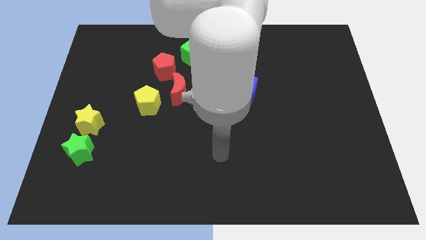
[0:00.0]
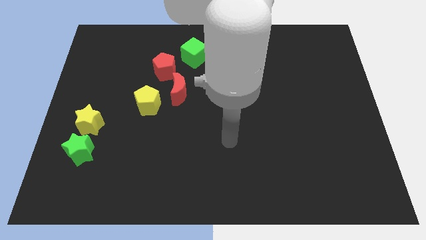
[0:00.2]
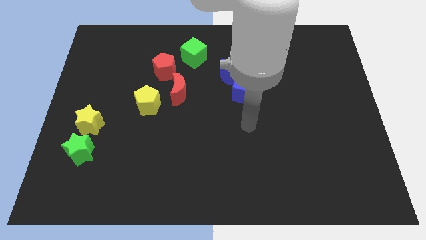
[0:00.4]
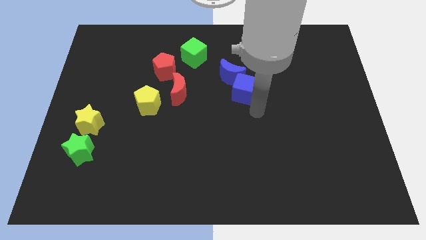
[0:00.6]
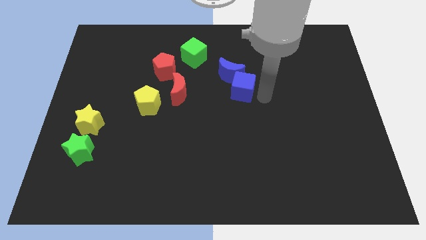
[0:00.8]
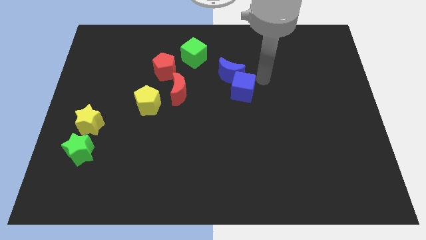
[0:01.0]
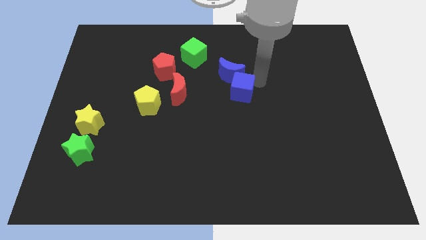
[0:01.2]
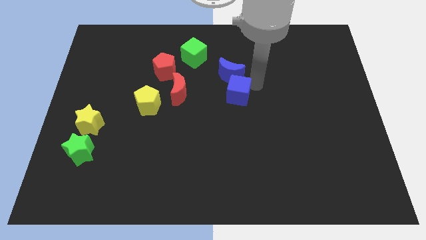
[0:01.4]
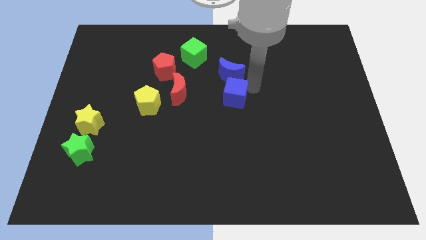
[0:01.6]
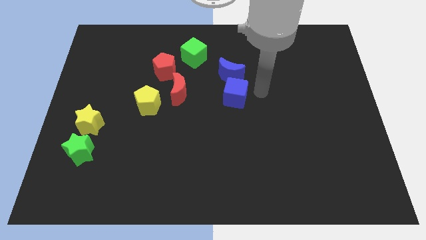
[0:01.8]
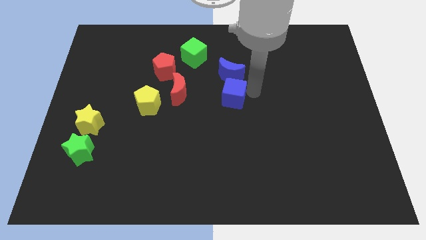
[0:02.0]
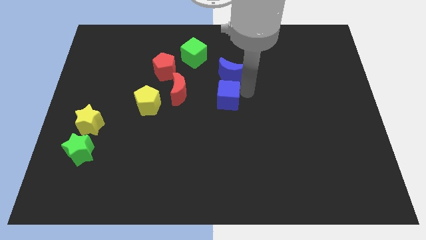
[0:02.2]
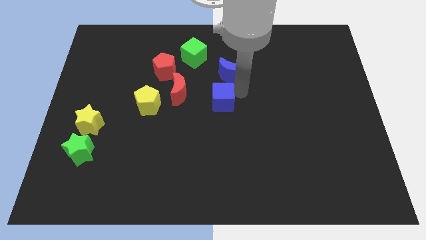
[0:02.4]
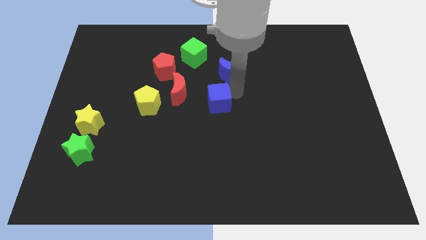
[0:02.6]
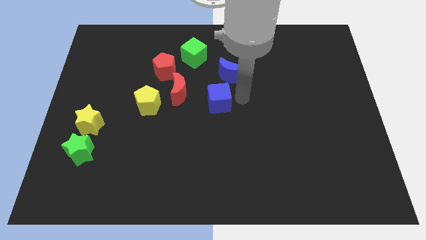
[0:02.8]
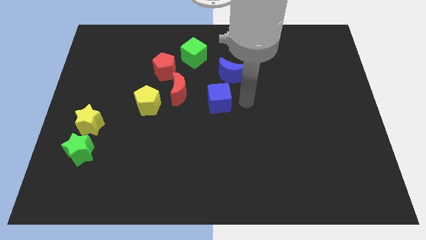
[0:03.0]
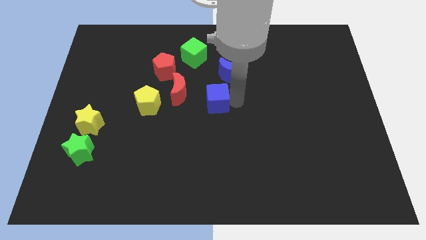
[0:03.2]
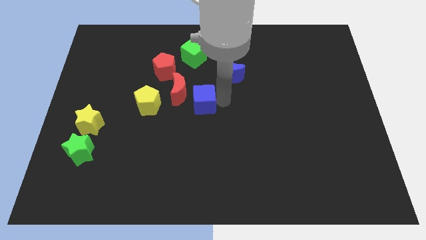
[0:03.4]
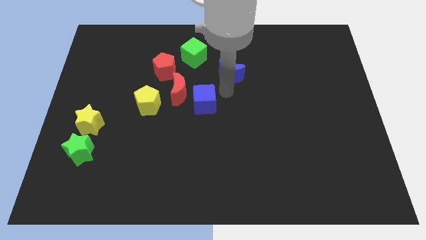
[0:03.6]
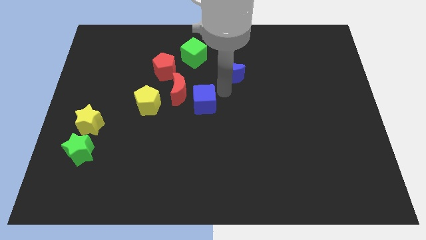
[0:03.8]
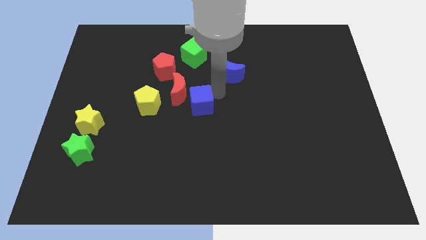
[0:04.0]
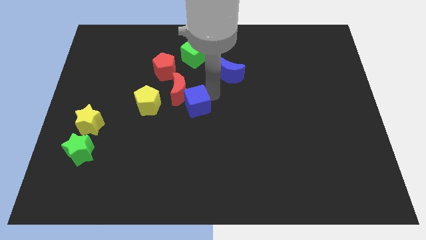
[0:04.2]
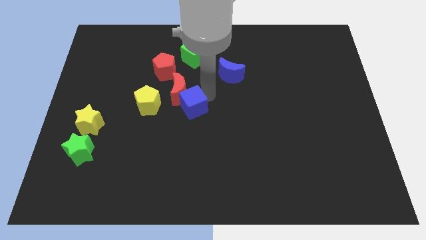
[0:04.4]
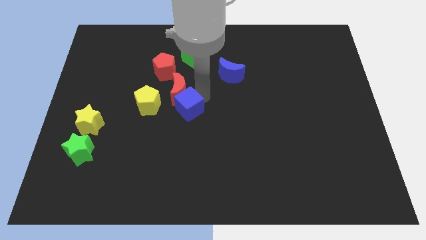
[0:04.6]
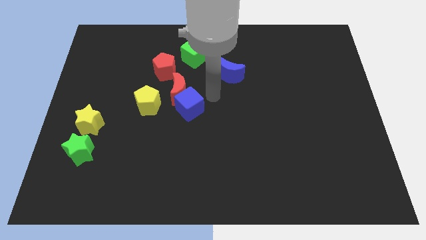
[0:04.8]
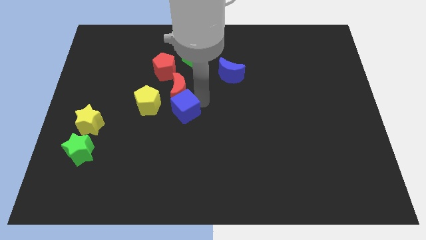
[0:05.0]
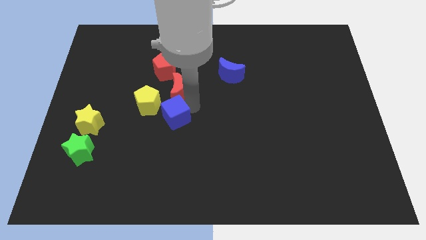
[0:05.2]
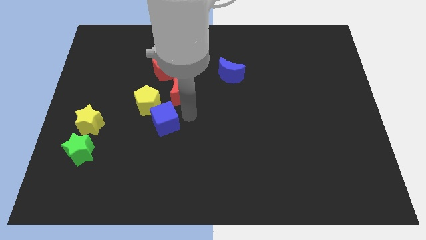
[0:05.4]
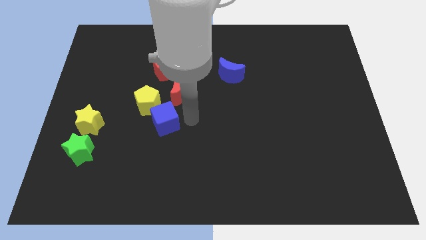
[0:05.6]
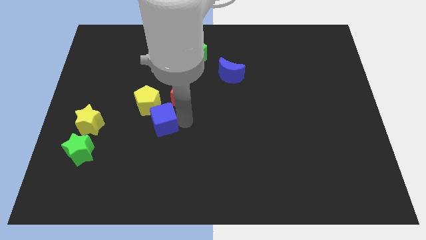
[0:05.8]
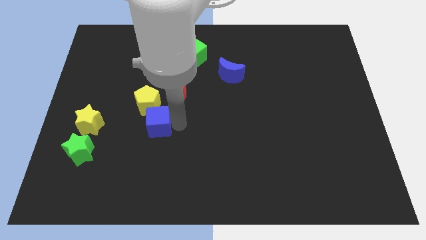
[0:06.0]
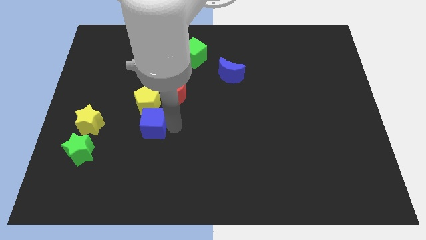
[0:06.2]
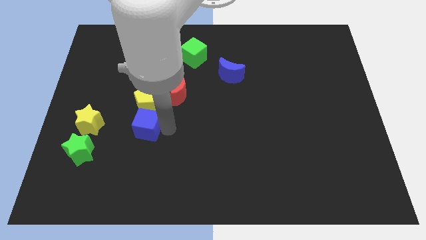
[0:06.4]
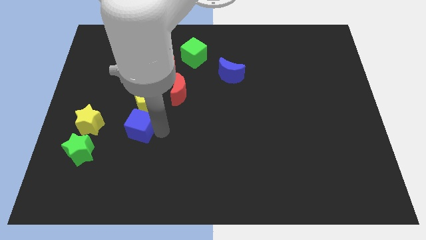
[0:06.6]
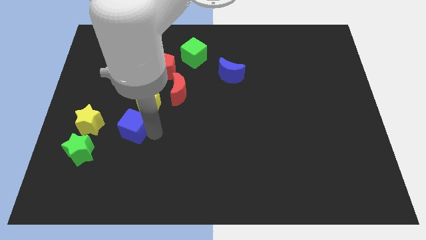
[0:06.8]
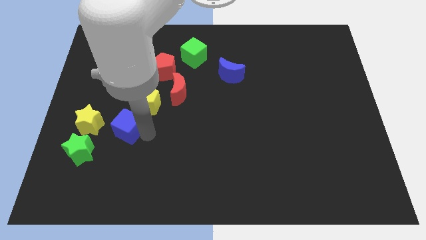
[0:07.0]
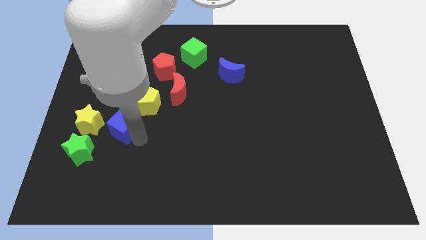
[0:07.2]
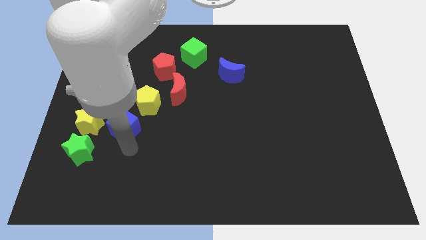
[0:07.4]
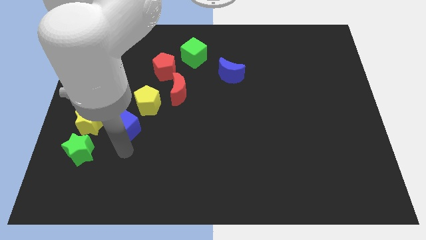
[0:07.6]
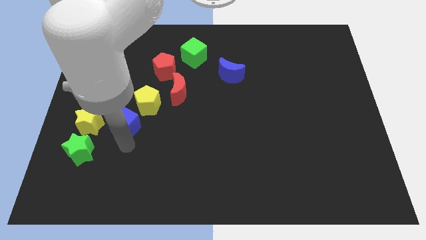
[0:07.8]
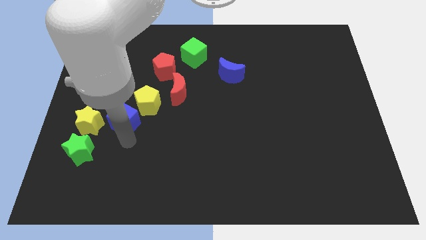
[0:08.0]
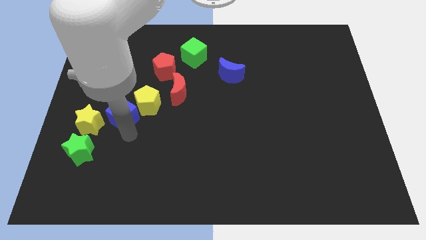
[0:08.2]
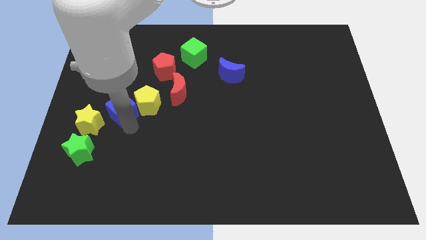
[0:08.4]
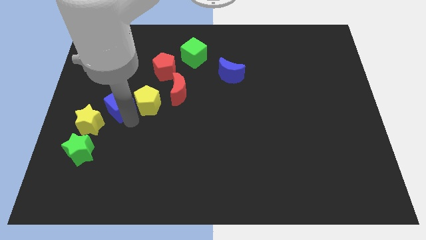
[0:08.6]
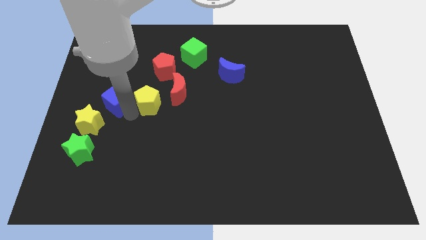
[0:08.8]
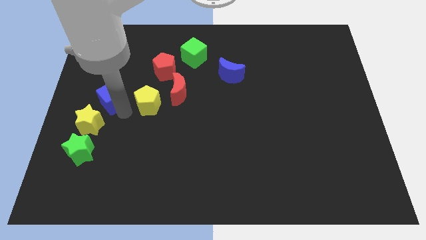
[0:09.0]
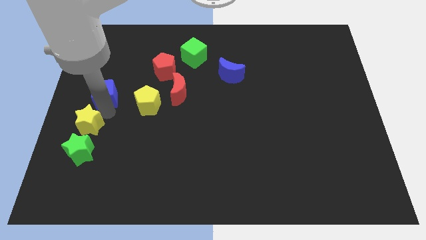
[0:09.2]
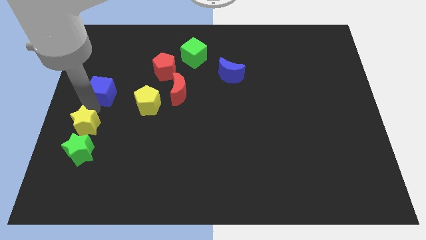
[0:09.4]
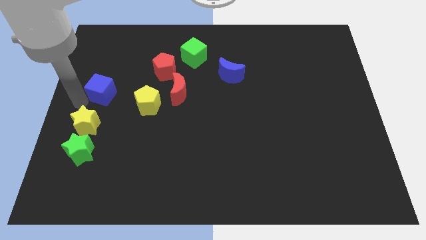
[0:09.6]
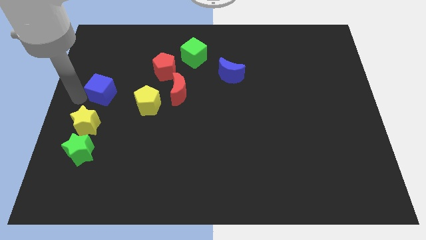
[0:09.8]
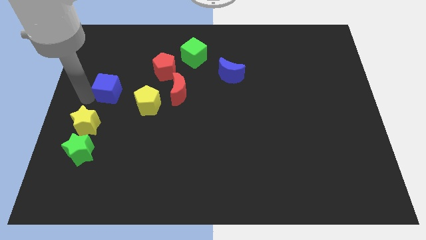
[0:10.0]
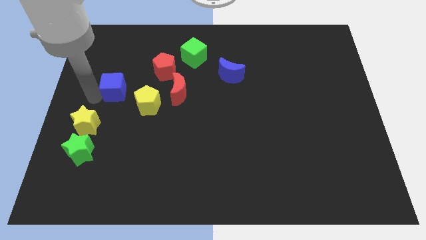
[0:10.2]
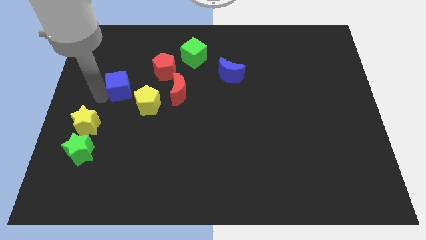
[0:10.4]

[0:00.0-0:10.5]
move the blue cube diagonally down and to the left of the red pentagon

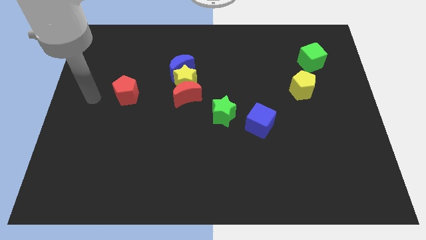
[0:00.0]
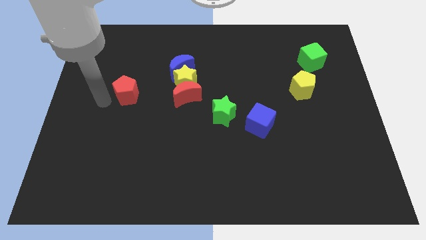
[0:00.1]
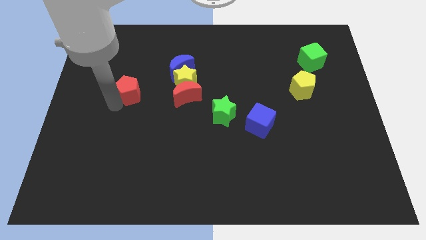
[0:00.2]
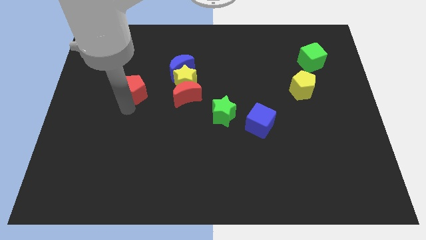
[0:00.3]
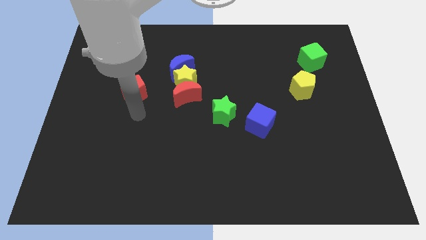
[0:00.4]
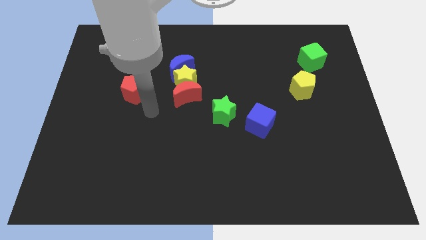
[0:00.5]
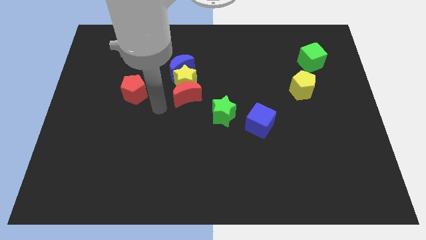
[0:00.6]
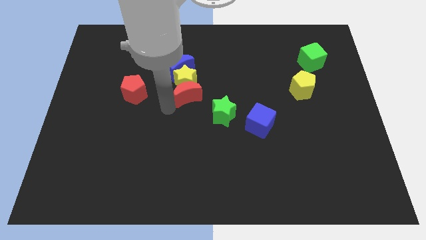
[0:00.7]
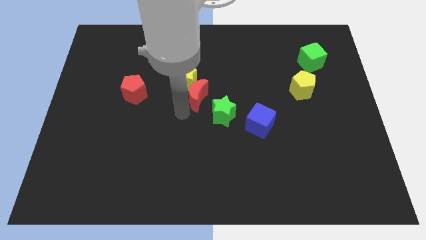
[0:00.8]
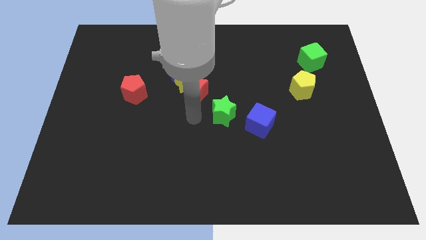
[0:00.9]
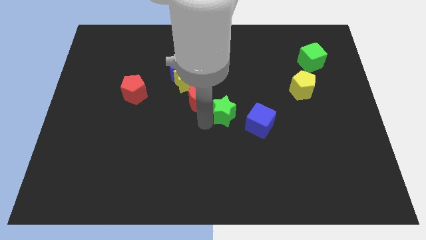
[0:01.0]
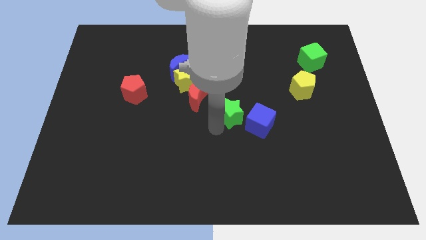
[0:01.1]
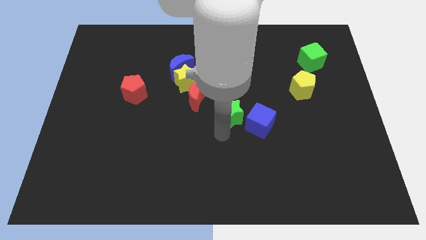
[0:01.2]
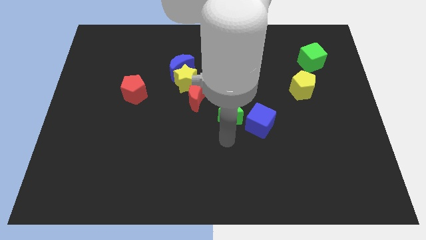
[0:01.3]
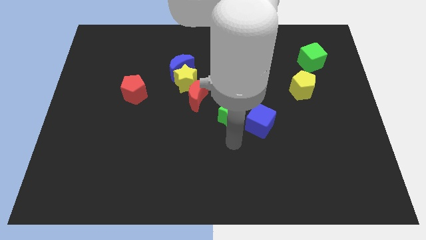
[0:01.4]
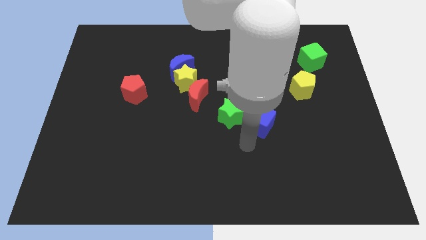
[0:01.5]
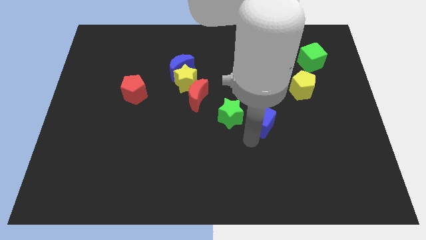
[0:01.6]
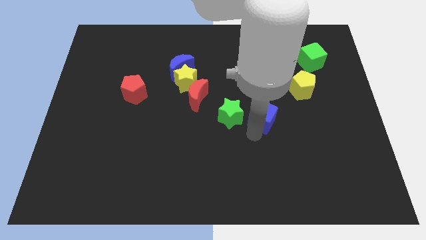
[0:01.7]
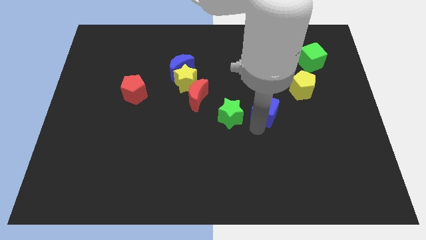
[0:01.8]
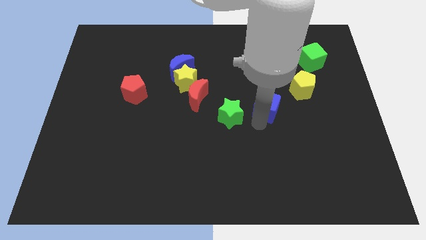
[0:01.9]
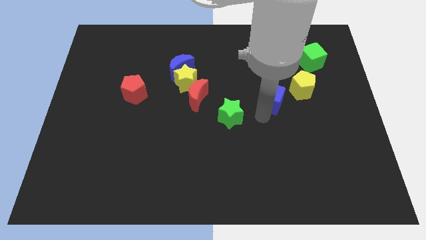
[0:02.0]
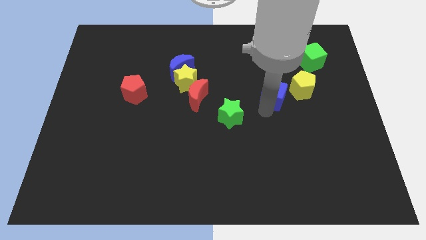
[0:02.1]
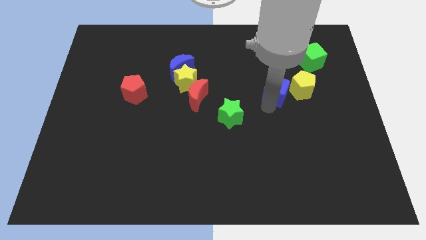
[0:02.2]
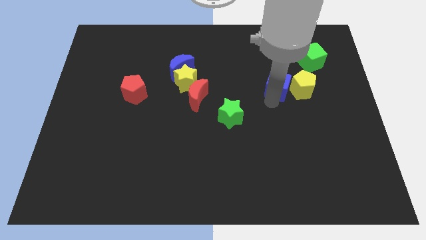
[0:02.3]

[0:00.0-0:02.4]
move the blue cube to the top left of the yellow pentagon
